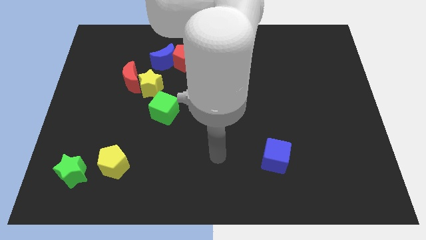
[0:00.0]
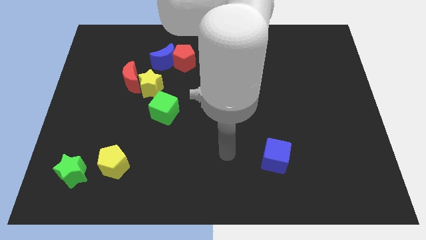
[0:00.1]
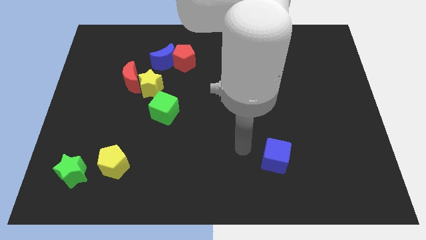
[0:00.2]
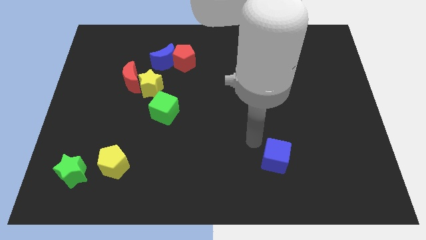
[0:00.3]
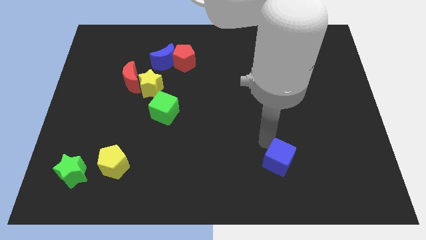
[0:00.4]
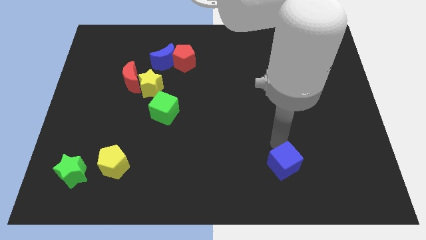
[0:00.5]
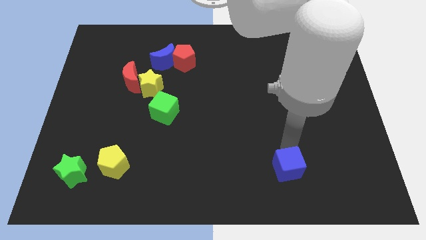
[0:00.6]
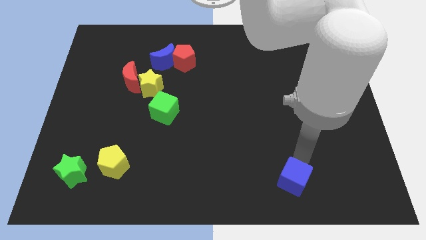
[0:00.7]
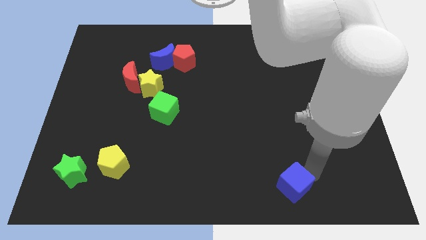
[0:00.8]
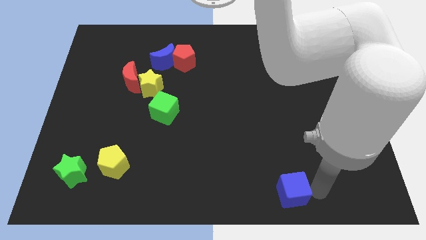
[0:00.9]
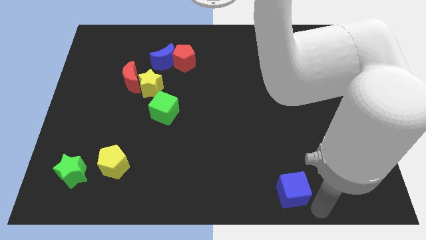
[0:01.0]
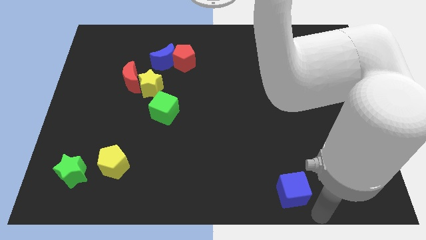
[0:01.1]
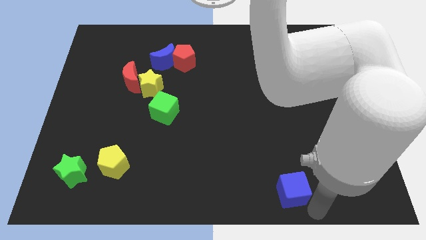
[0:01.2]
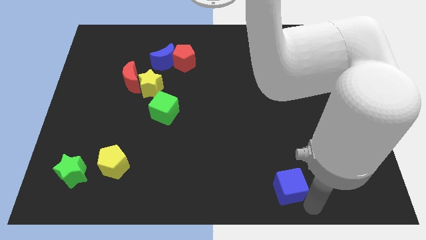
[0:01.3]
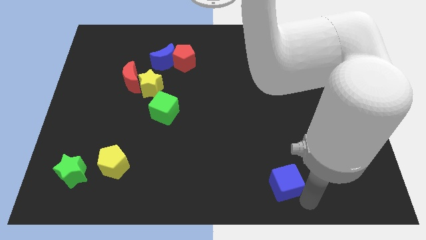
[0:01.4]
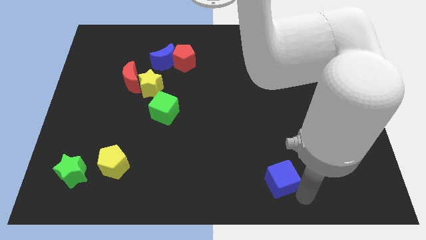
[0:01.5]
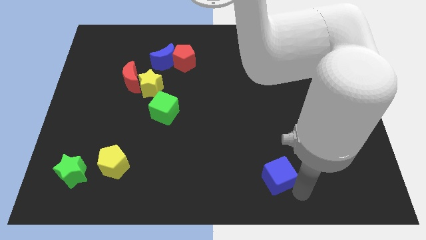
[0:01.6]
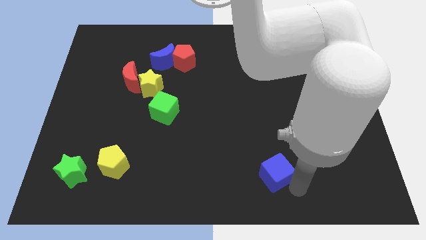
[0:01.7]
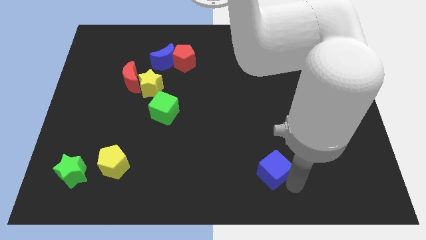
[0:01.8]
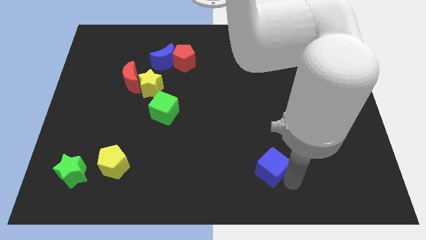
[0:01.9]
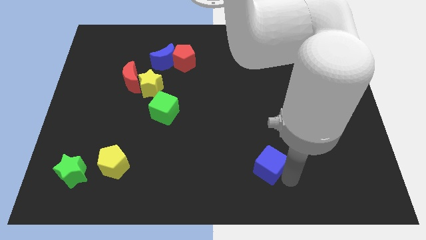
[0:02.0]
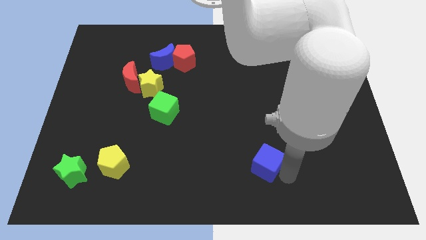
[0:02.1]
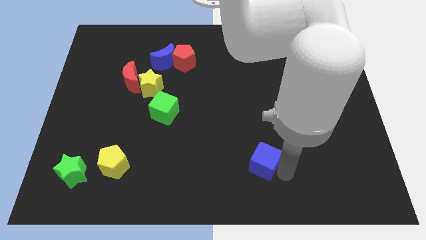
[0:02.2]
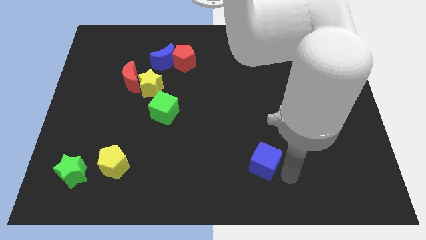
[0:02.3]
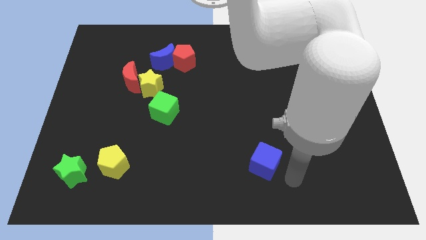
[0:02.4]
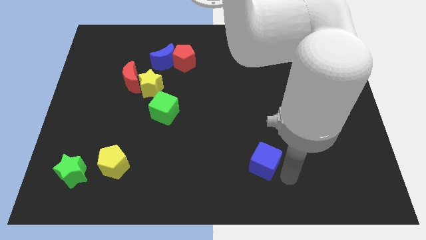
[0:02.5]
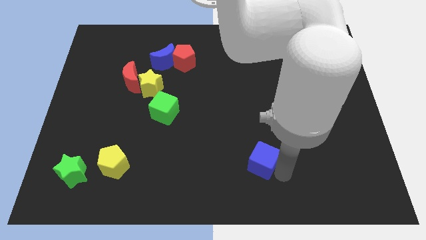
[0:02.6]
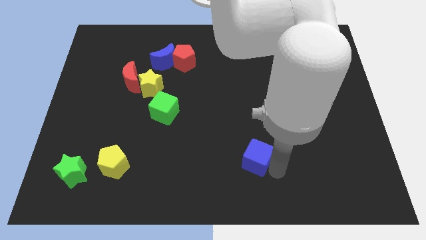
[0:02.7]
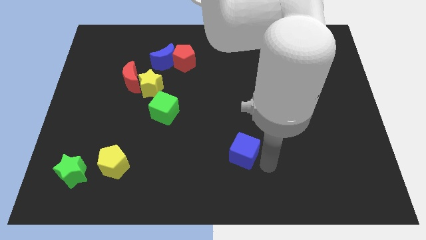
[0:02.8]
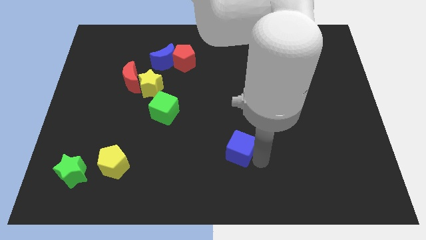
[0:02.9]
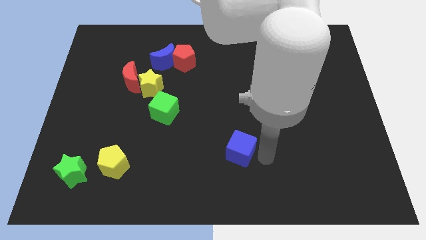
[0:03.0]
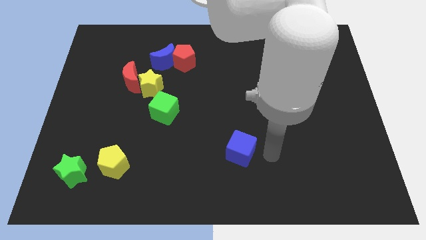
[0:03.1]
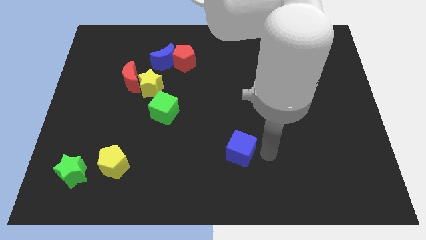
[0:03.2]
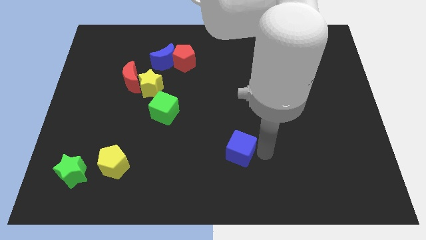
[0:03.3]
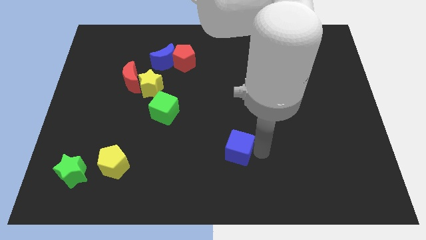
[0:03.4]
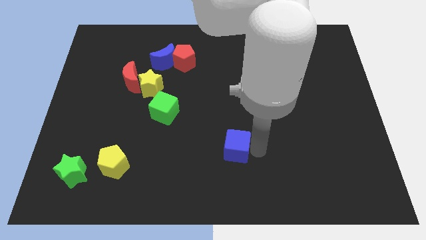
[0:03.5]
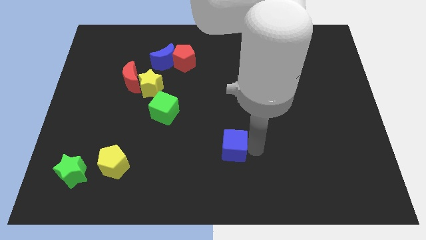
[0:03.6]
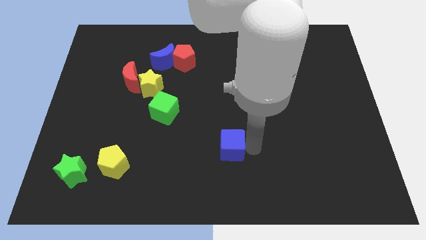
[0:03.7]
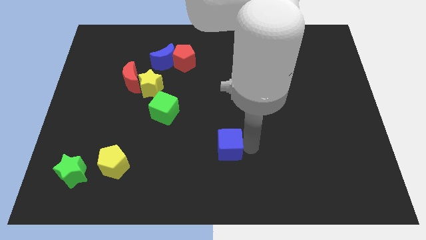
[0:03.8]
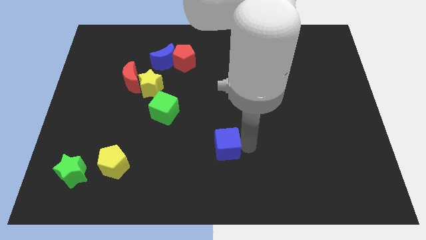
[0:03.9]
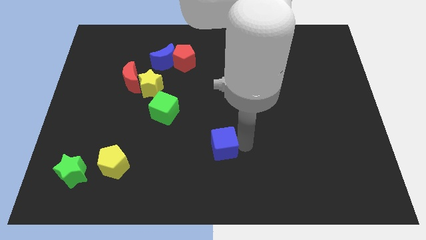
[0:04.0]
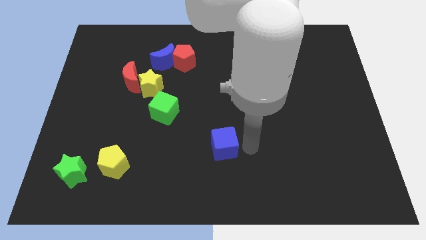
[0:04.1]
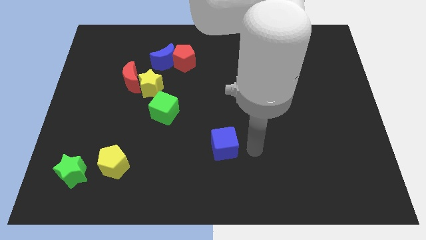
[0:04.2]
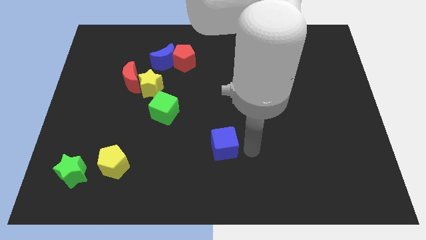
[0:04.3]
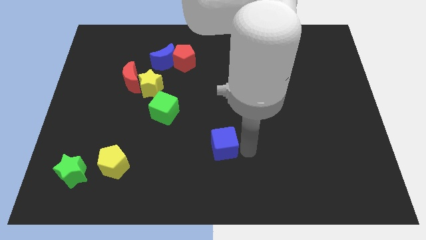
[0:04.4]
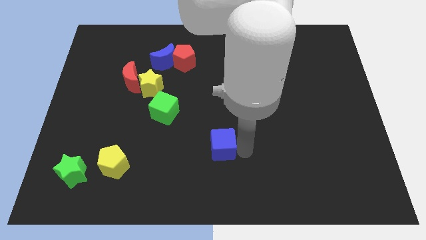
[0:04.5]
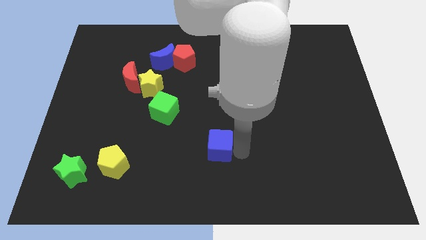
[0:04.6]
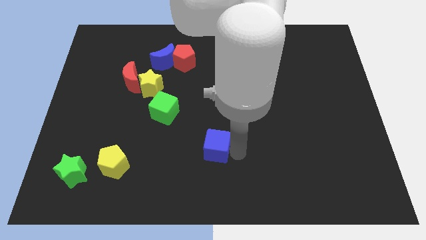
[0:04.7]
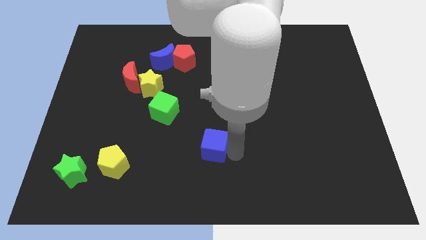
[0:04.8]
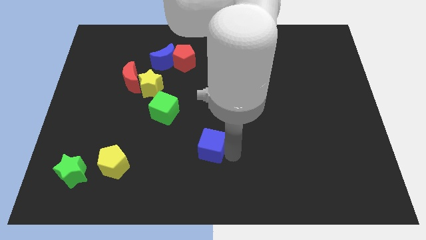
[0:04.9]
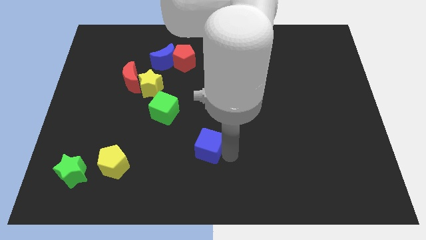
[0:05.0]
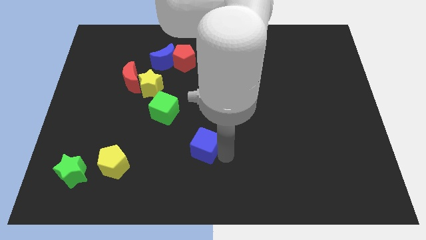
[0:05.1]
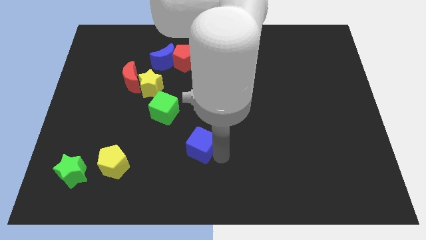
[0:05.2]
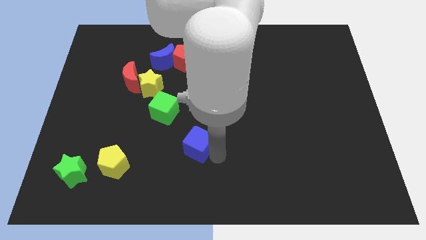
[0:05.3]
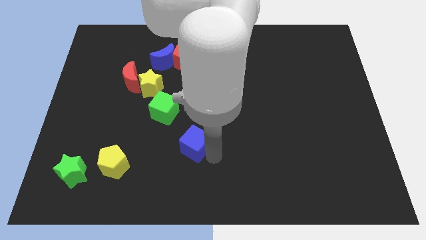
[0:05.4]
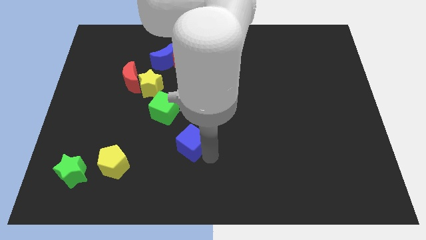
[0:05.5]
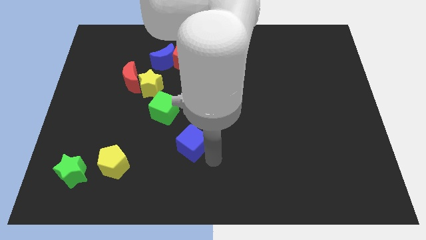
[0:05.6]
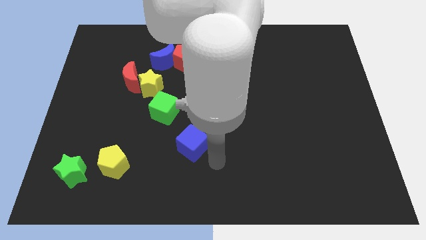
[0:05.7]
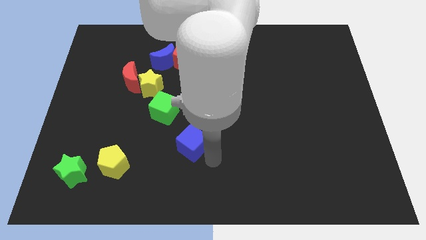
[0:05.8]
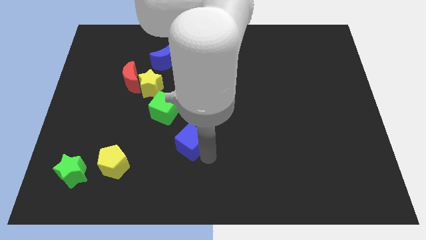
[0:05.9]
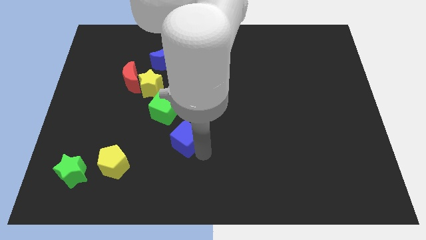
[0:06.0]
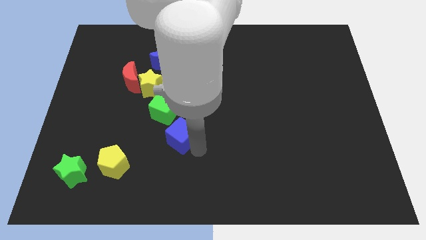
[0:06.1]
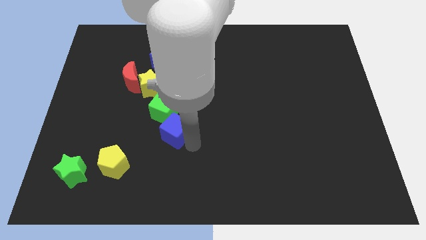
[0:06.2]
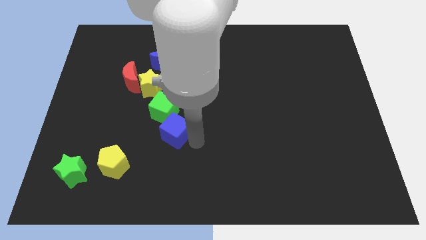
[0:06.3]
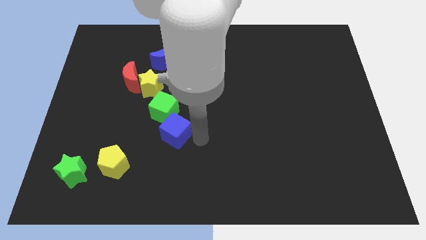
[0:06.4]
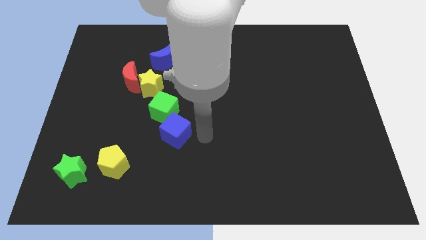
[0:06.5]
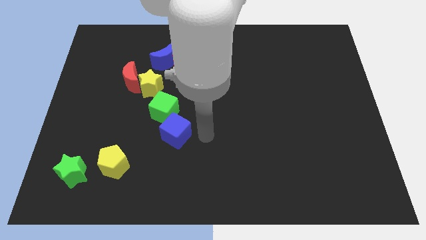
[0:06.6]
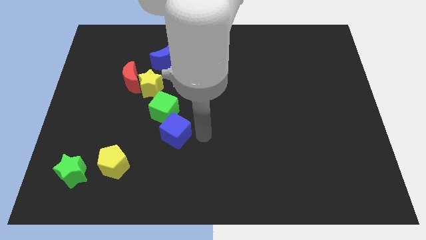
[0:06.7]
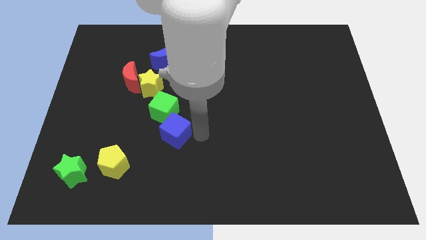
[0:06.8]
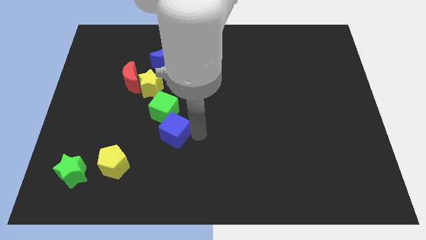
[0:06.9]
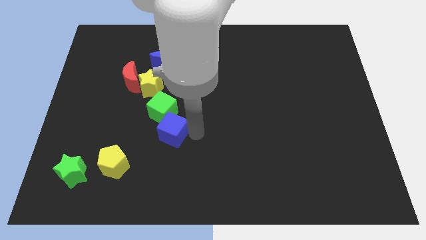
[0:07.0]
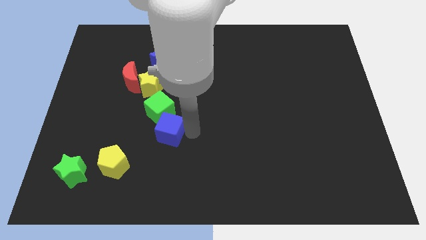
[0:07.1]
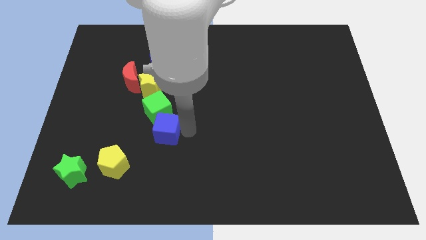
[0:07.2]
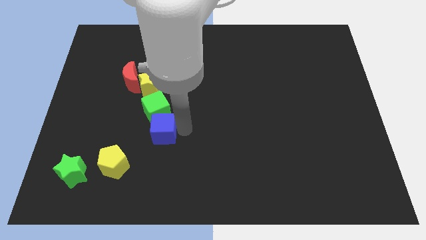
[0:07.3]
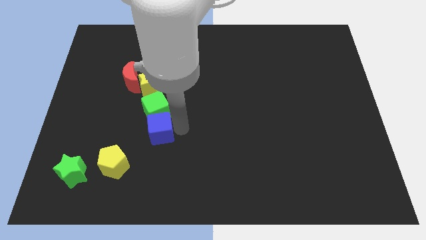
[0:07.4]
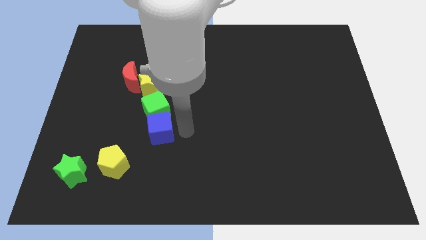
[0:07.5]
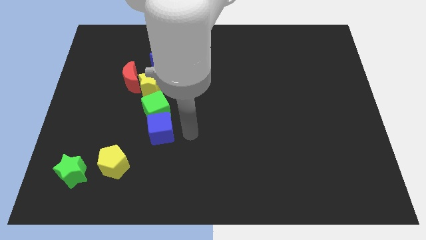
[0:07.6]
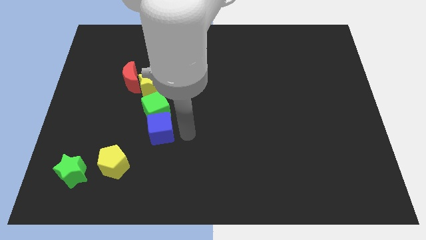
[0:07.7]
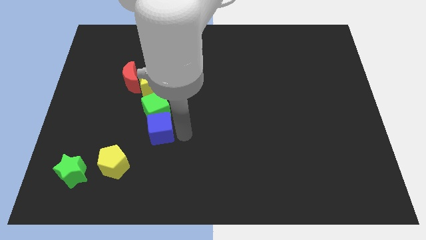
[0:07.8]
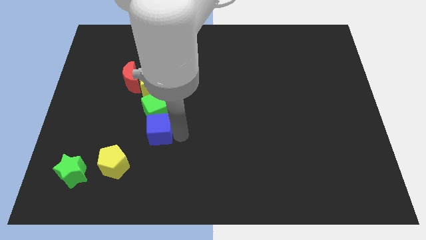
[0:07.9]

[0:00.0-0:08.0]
push the blue cube to the bottom left of the green cube
